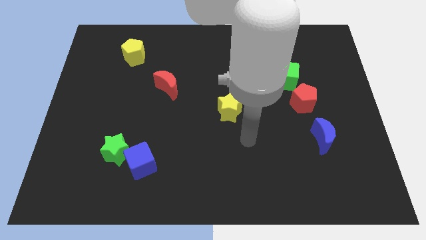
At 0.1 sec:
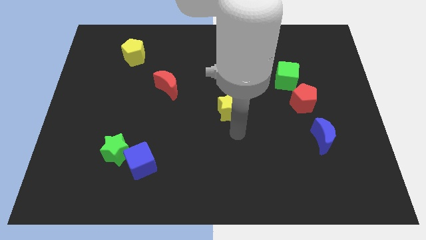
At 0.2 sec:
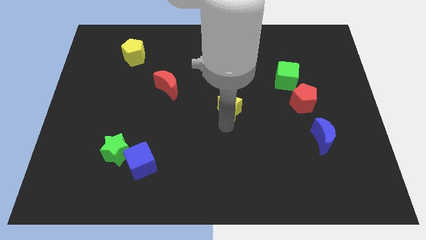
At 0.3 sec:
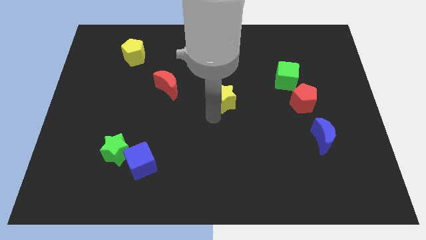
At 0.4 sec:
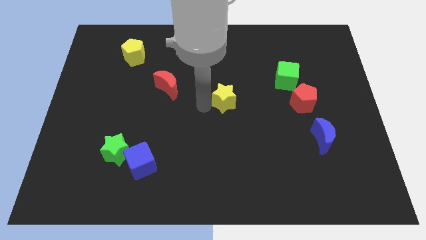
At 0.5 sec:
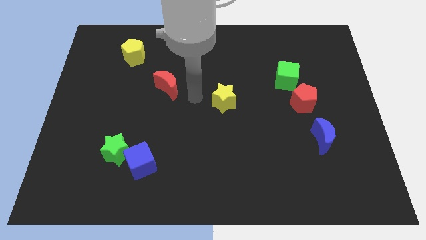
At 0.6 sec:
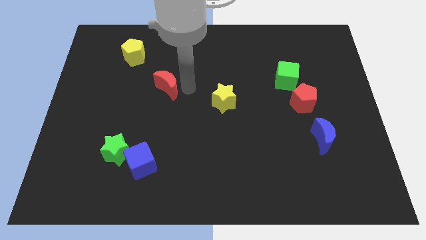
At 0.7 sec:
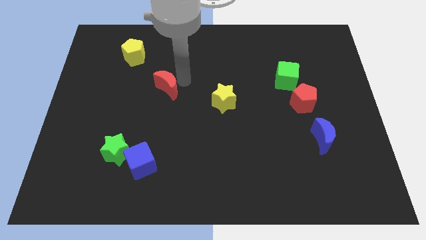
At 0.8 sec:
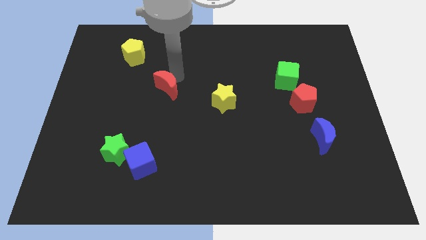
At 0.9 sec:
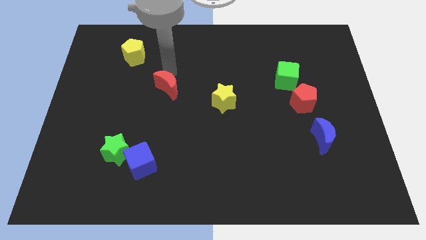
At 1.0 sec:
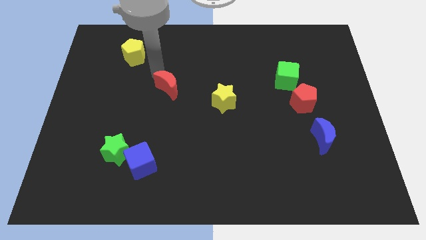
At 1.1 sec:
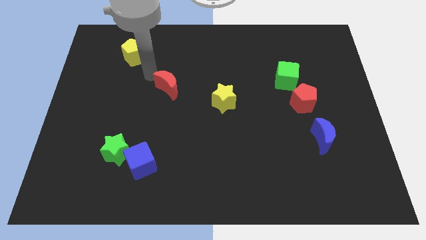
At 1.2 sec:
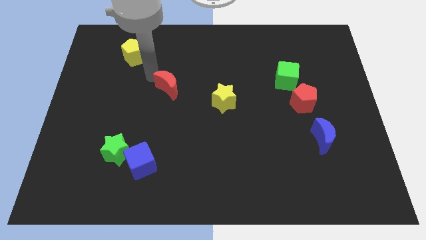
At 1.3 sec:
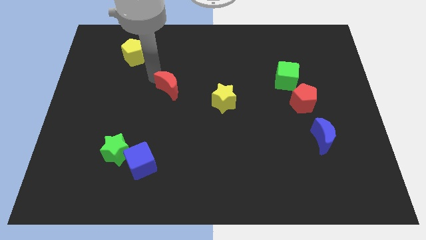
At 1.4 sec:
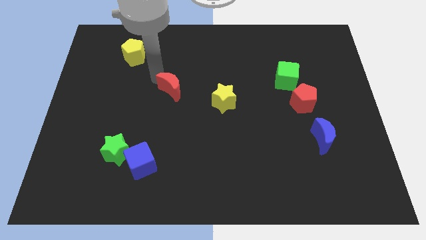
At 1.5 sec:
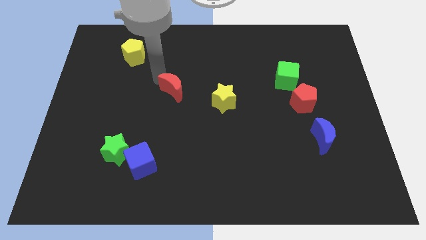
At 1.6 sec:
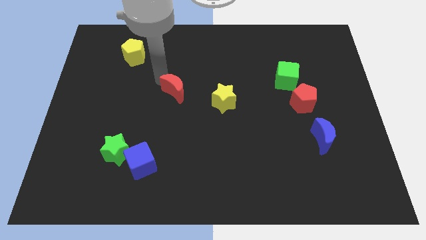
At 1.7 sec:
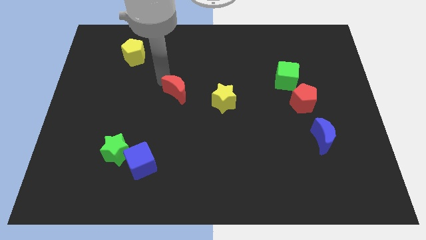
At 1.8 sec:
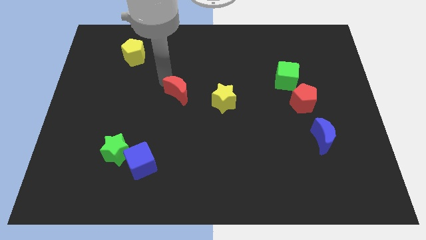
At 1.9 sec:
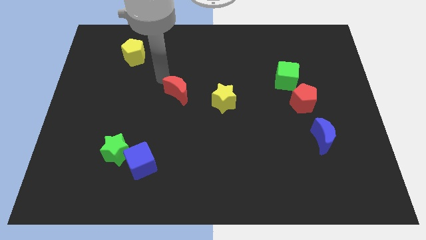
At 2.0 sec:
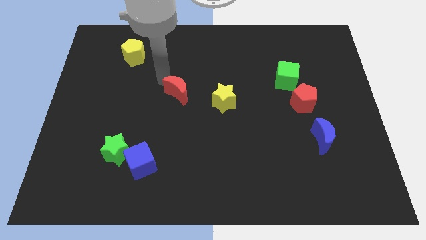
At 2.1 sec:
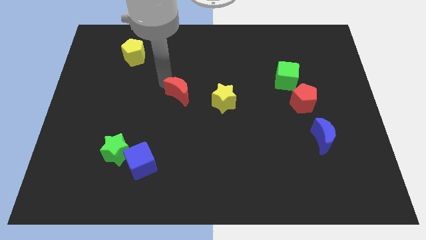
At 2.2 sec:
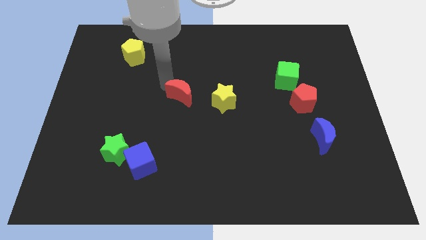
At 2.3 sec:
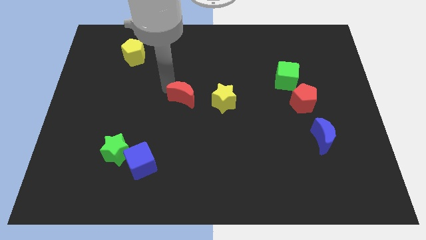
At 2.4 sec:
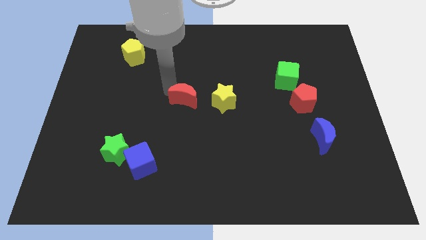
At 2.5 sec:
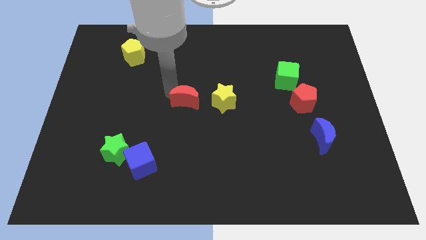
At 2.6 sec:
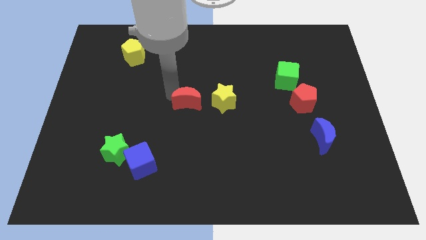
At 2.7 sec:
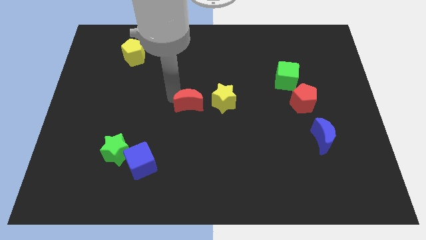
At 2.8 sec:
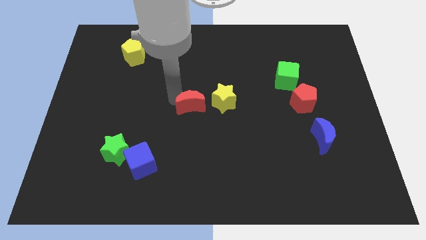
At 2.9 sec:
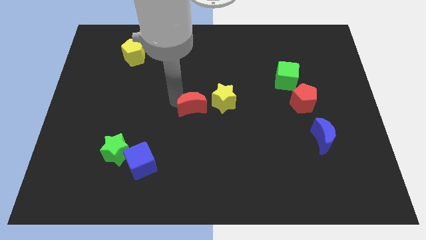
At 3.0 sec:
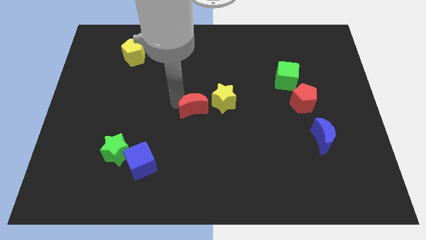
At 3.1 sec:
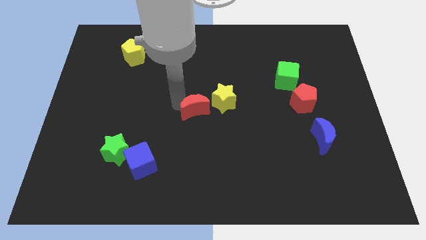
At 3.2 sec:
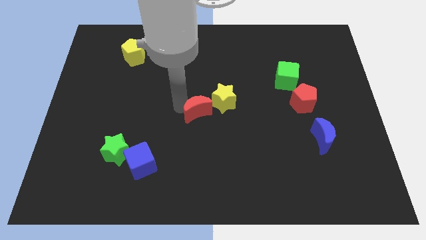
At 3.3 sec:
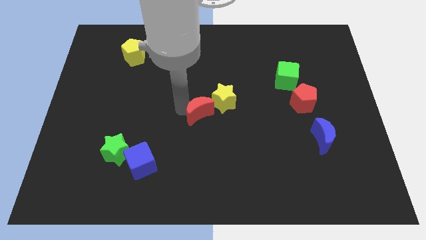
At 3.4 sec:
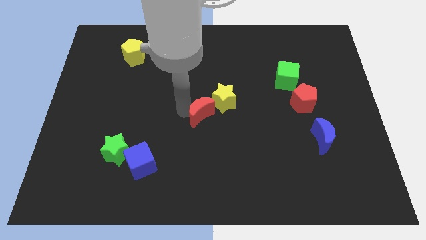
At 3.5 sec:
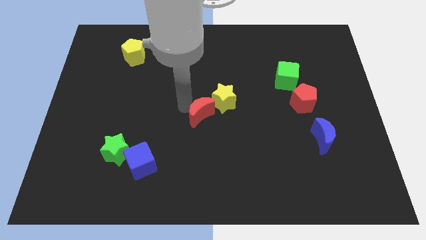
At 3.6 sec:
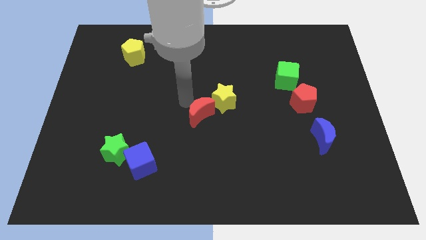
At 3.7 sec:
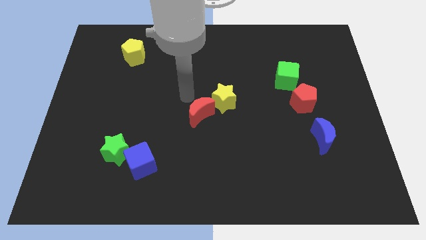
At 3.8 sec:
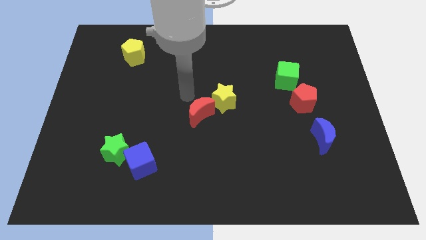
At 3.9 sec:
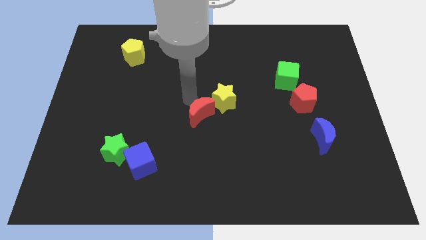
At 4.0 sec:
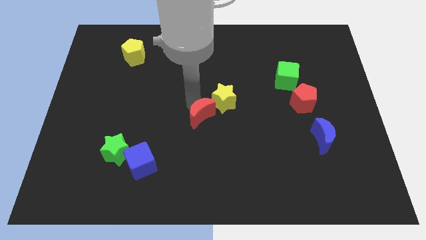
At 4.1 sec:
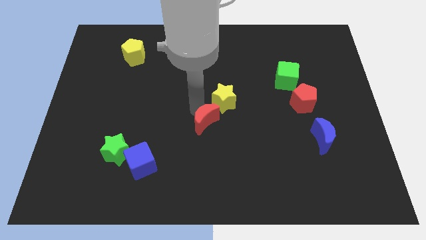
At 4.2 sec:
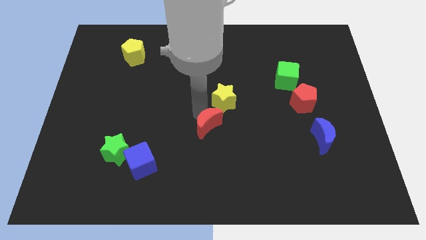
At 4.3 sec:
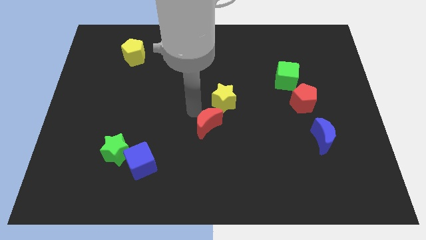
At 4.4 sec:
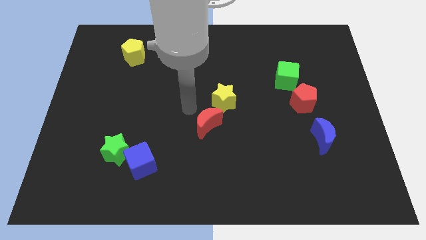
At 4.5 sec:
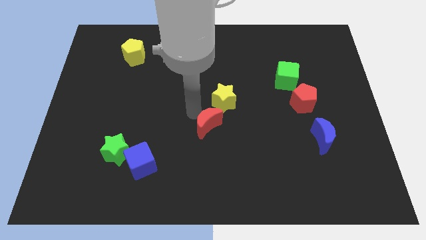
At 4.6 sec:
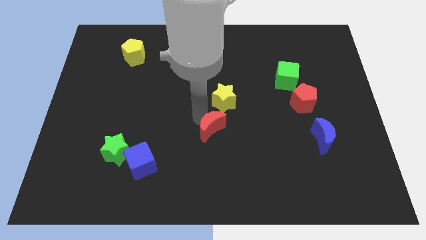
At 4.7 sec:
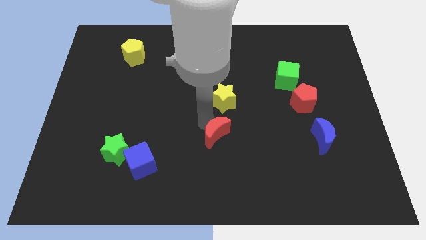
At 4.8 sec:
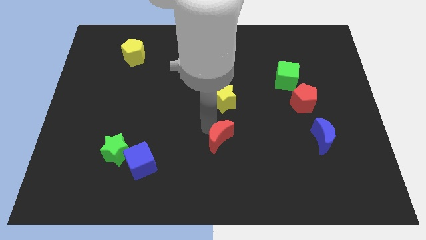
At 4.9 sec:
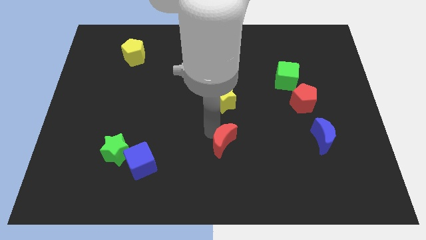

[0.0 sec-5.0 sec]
slide the red moon downwards and right

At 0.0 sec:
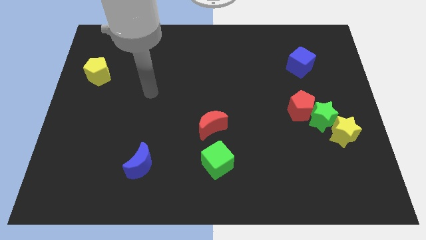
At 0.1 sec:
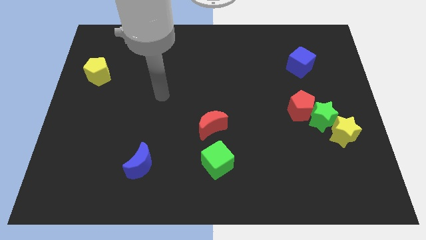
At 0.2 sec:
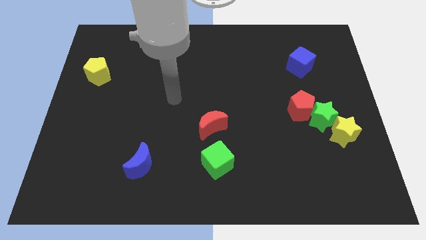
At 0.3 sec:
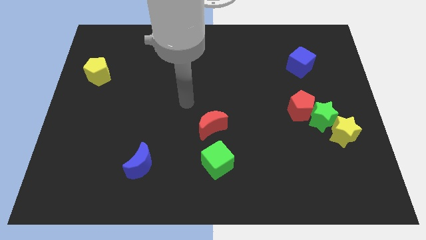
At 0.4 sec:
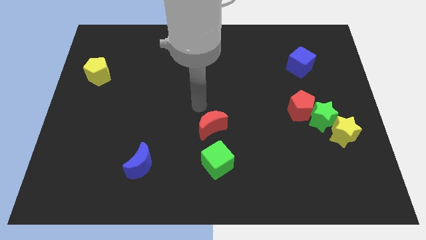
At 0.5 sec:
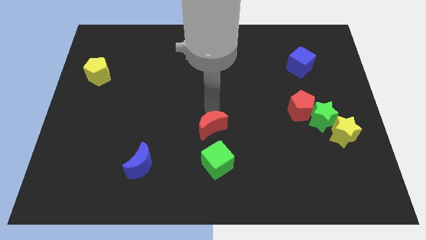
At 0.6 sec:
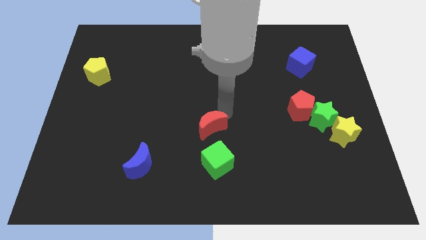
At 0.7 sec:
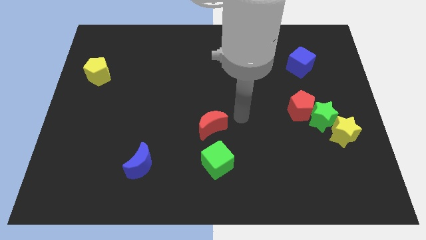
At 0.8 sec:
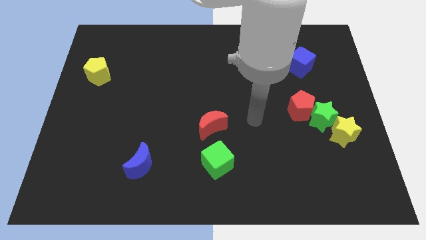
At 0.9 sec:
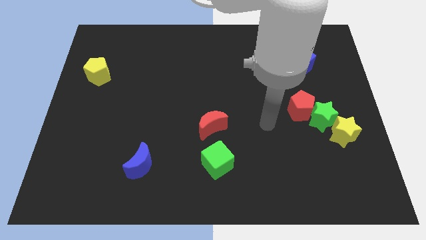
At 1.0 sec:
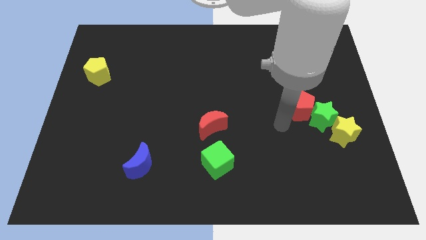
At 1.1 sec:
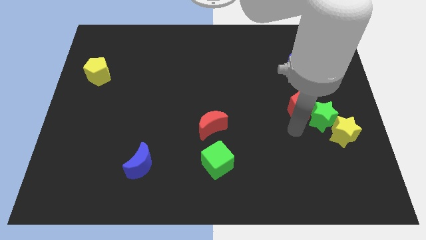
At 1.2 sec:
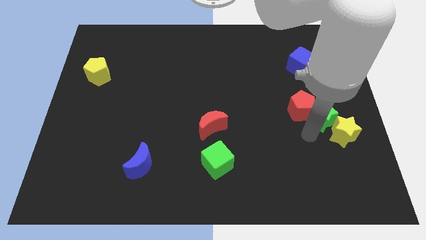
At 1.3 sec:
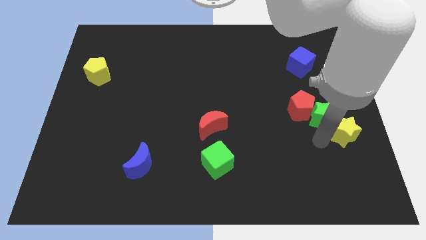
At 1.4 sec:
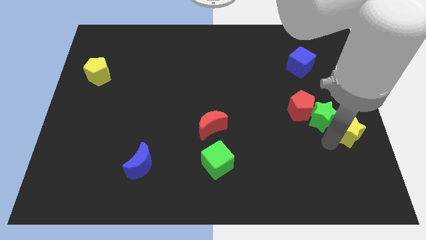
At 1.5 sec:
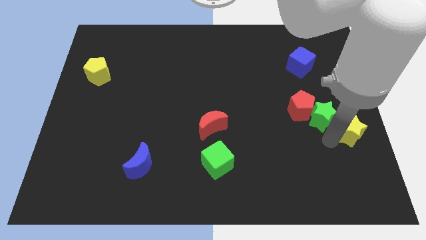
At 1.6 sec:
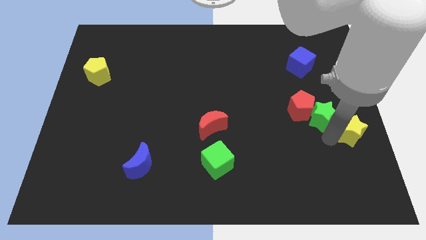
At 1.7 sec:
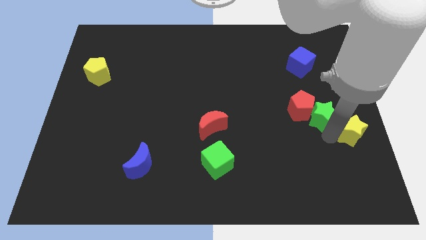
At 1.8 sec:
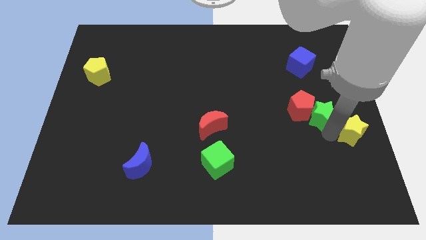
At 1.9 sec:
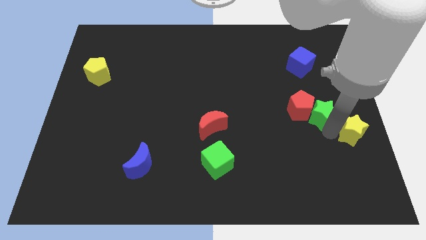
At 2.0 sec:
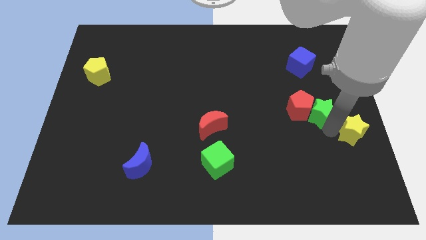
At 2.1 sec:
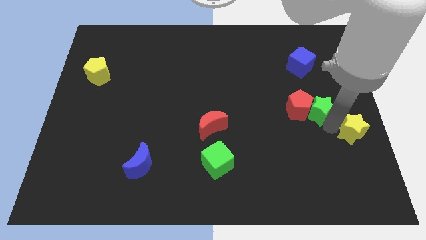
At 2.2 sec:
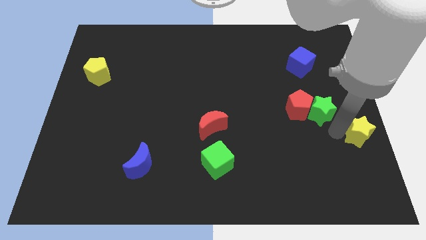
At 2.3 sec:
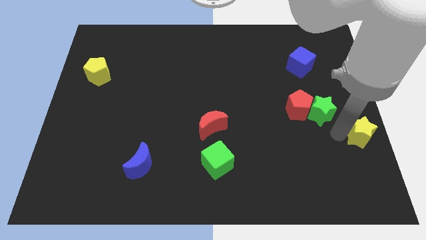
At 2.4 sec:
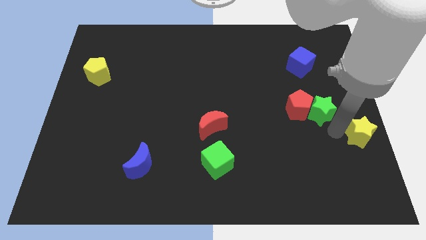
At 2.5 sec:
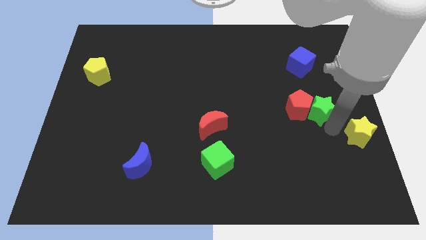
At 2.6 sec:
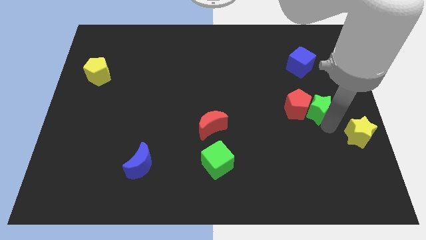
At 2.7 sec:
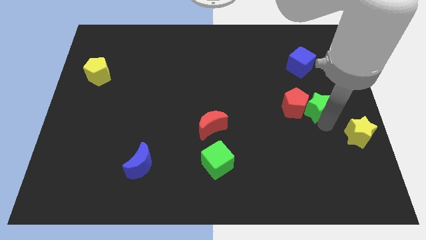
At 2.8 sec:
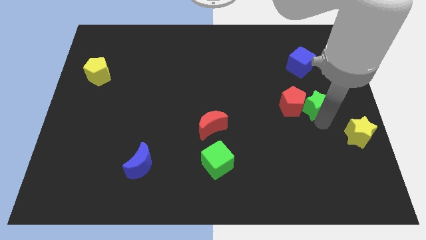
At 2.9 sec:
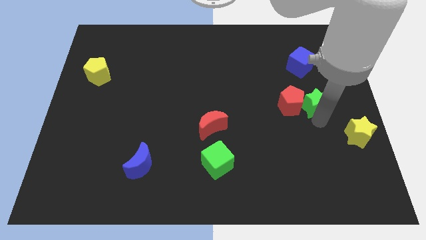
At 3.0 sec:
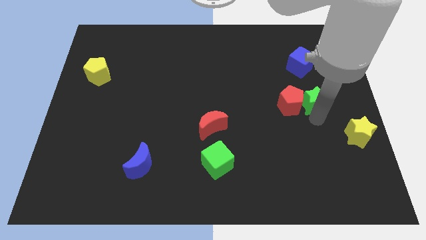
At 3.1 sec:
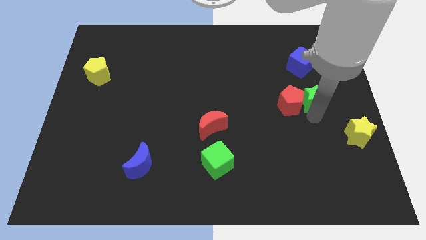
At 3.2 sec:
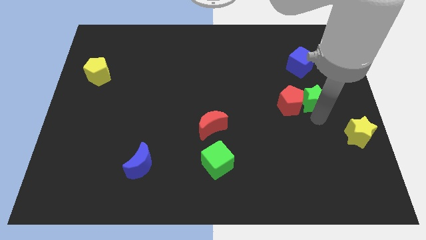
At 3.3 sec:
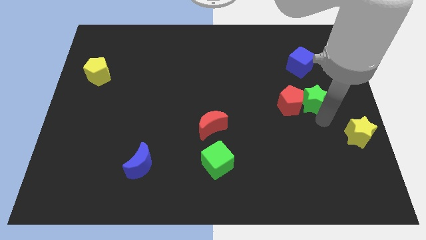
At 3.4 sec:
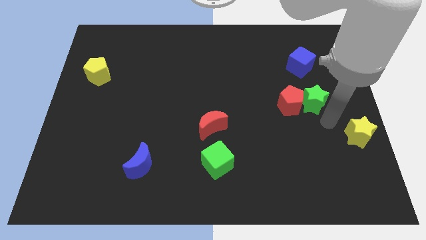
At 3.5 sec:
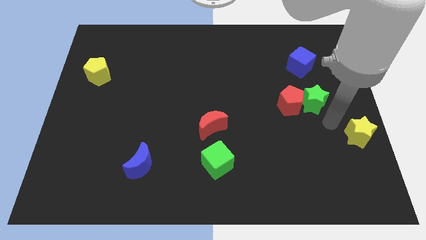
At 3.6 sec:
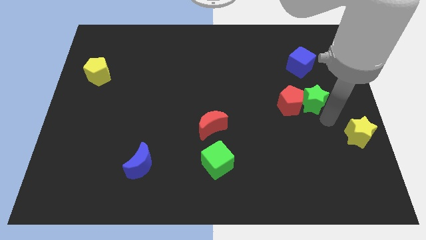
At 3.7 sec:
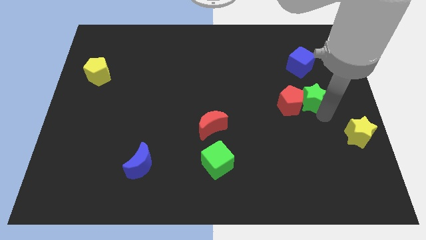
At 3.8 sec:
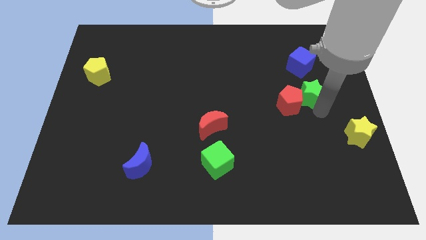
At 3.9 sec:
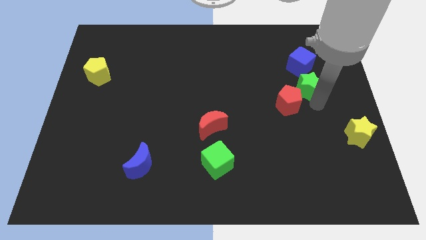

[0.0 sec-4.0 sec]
push the green star up and then to the left a little bit
